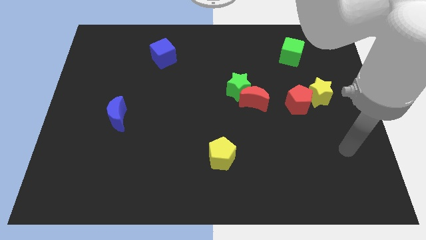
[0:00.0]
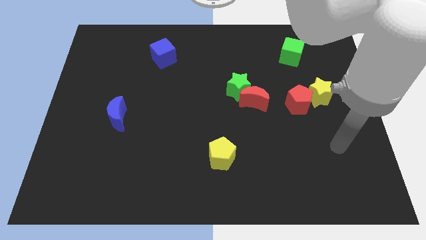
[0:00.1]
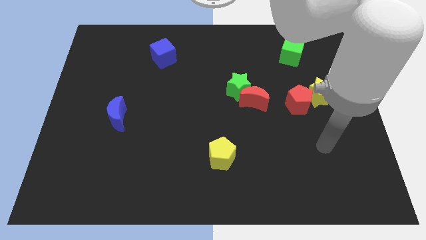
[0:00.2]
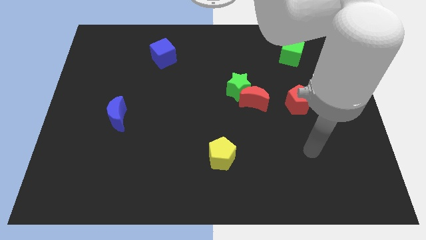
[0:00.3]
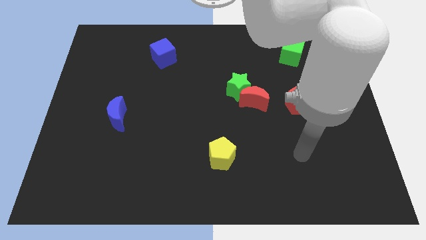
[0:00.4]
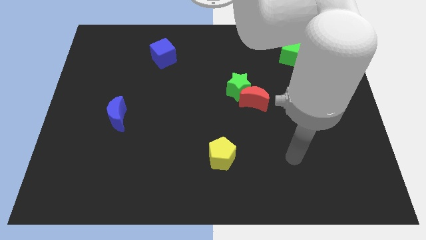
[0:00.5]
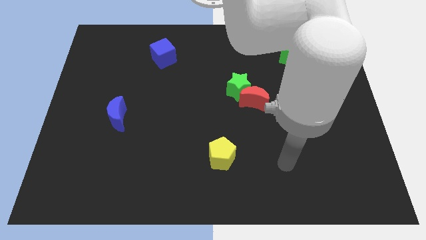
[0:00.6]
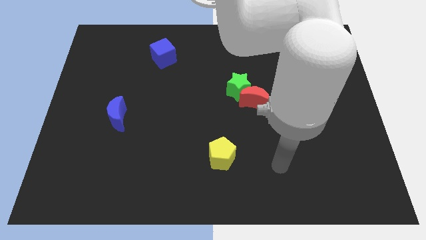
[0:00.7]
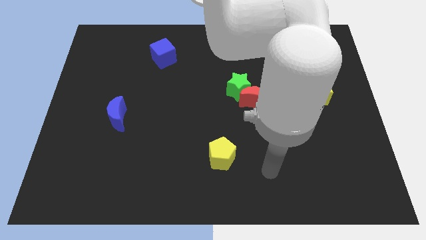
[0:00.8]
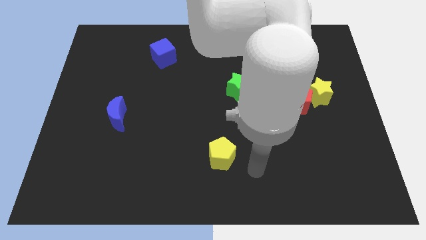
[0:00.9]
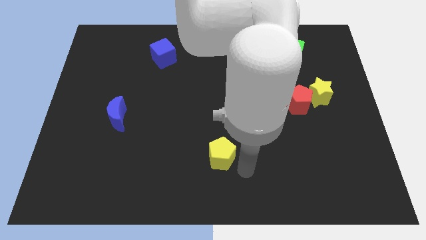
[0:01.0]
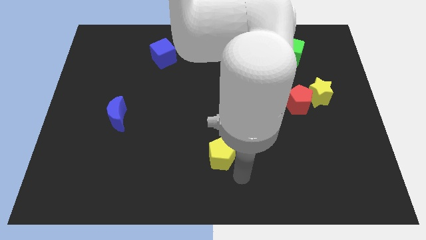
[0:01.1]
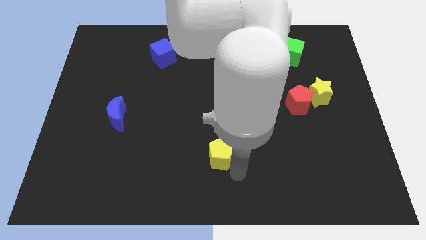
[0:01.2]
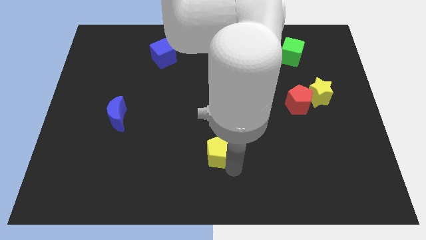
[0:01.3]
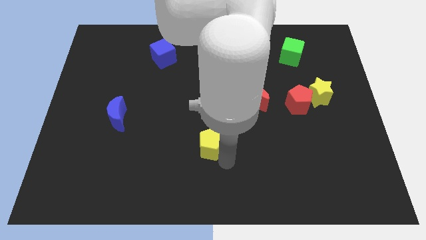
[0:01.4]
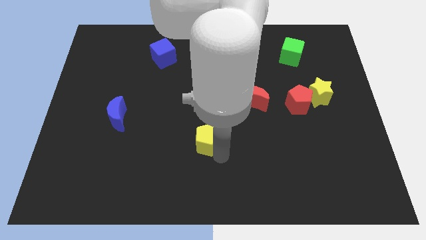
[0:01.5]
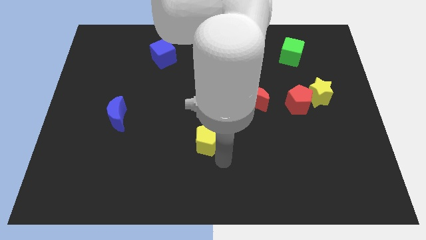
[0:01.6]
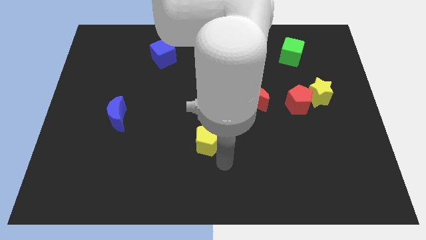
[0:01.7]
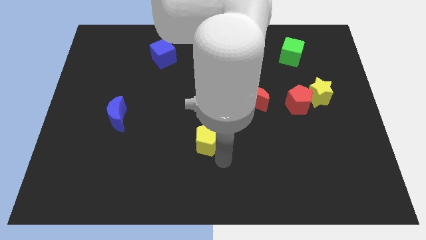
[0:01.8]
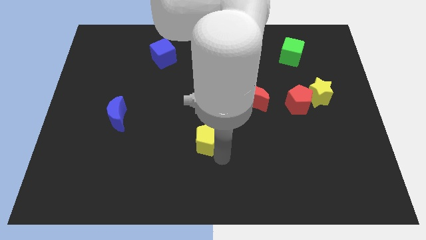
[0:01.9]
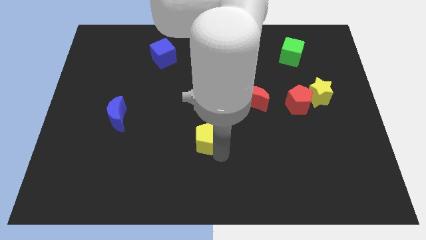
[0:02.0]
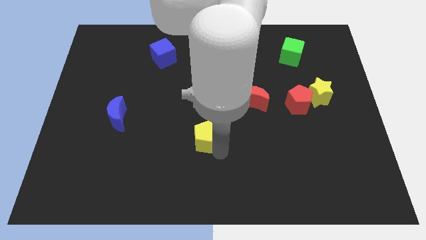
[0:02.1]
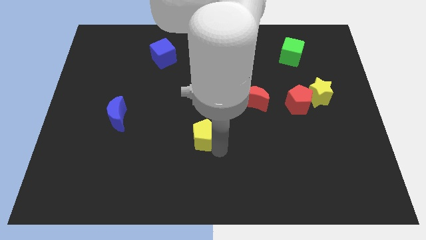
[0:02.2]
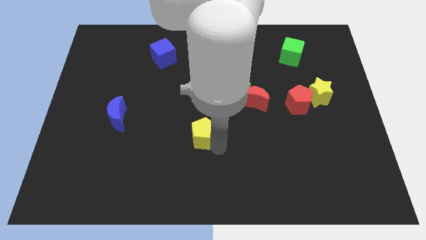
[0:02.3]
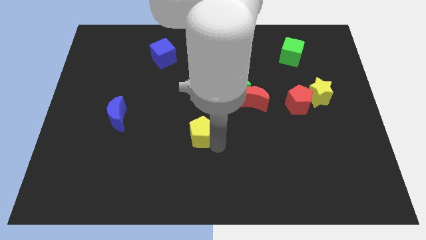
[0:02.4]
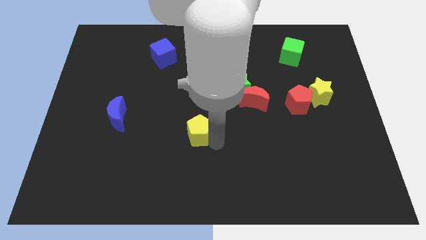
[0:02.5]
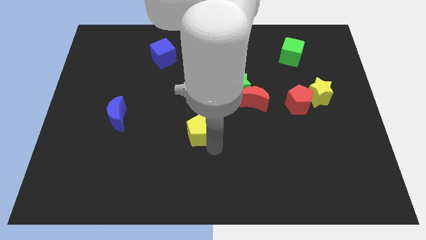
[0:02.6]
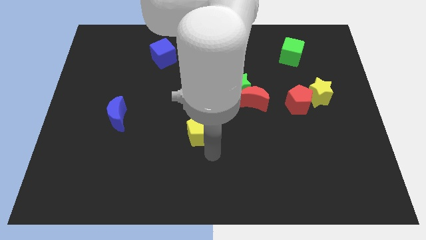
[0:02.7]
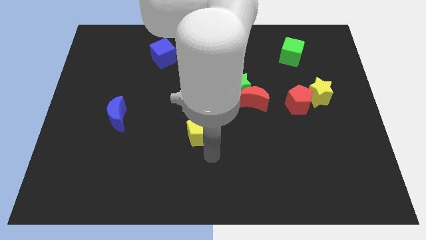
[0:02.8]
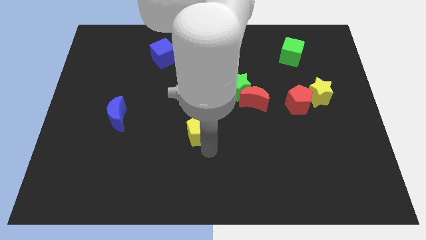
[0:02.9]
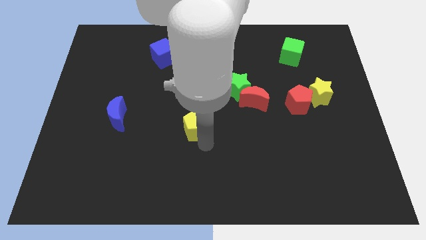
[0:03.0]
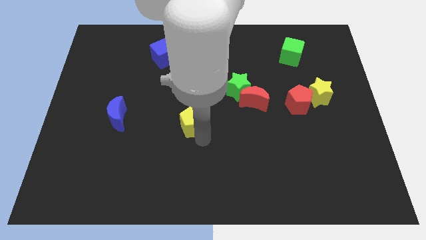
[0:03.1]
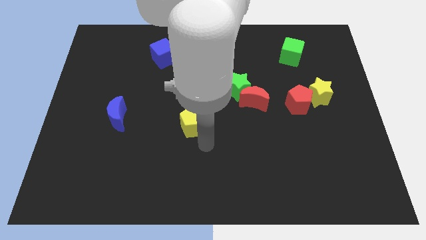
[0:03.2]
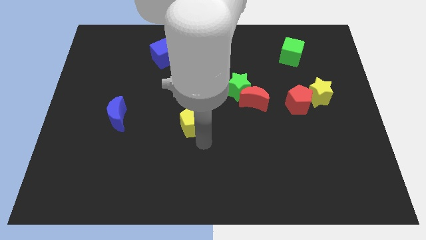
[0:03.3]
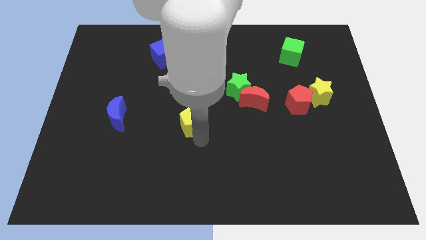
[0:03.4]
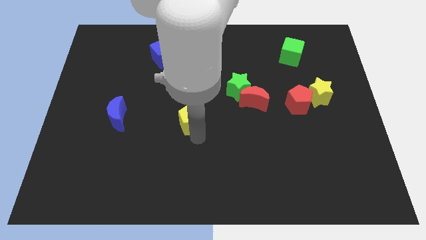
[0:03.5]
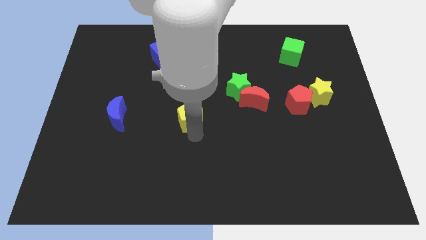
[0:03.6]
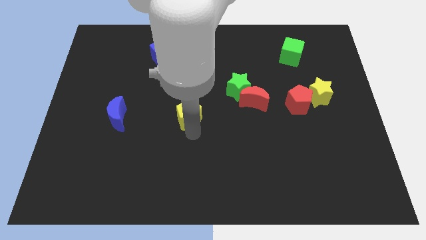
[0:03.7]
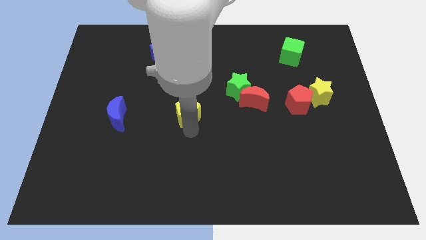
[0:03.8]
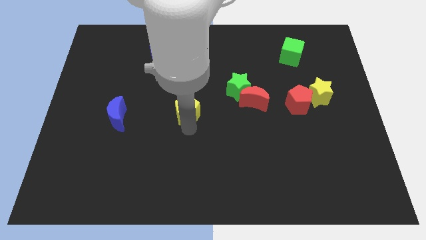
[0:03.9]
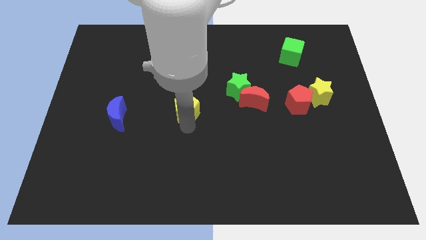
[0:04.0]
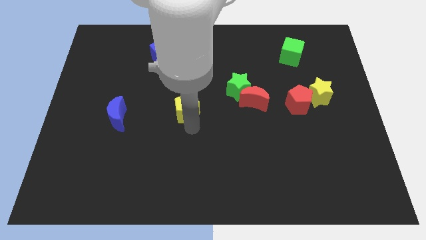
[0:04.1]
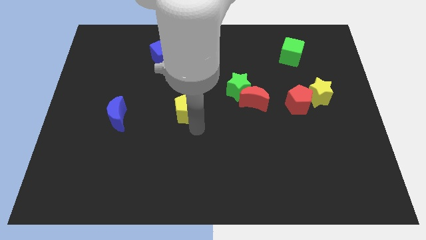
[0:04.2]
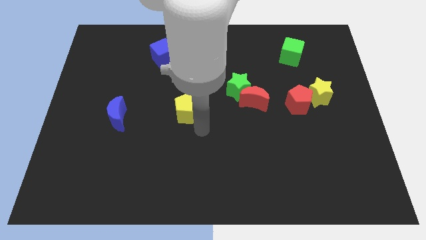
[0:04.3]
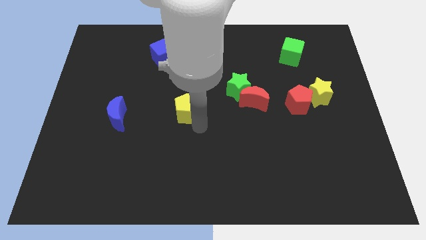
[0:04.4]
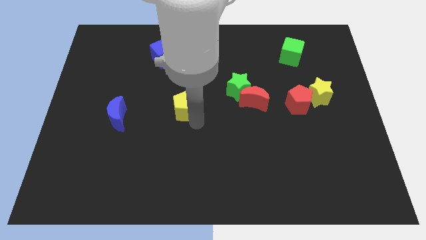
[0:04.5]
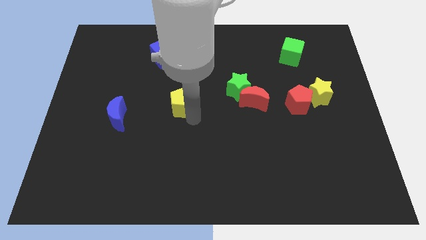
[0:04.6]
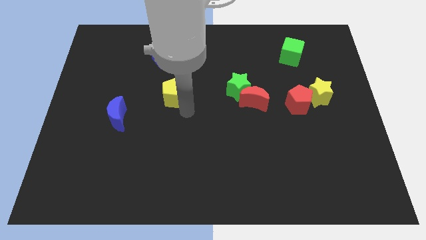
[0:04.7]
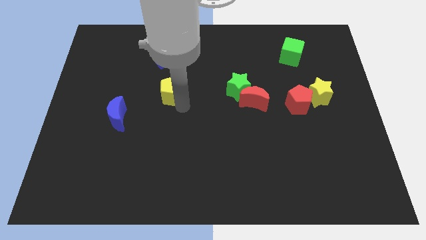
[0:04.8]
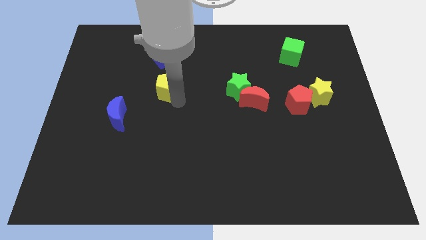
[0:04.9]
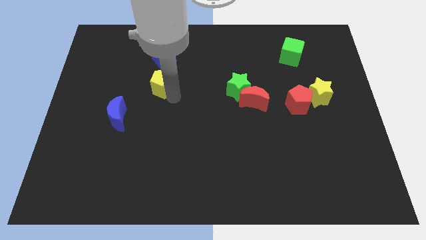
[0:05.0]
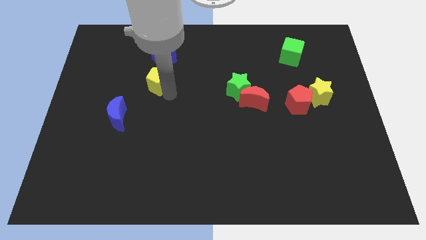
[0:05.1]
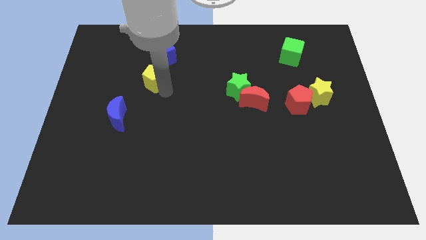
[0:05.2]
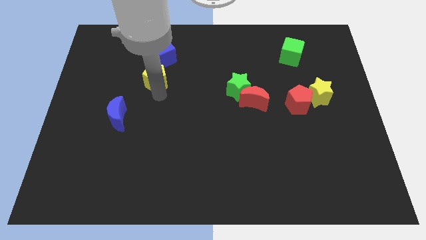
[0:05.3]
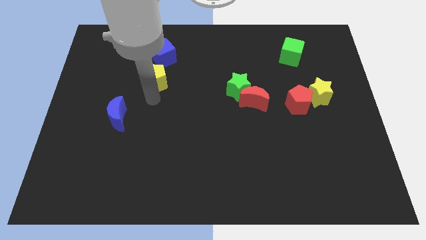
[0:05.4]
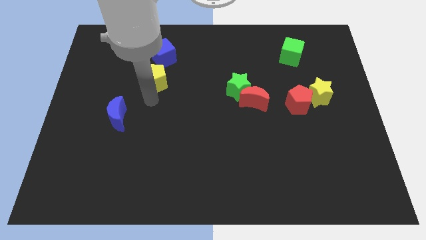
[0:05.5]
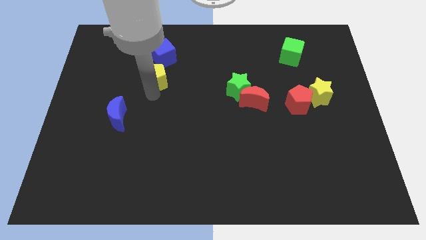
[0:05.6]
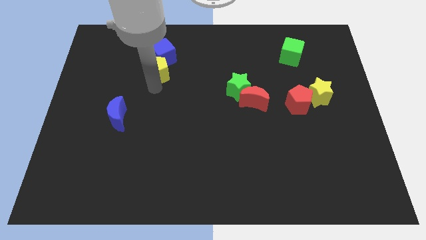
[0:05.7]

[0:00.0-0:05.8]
move the yellow pentagon towards the blue cube

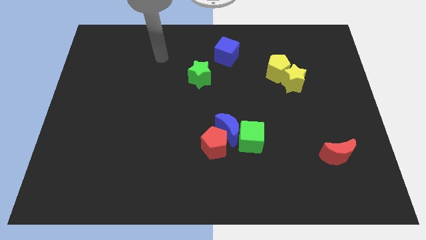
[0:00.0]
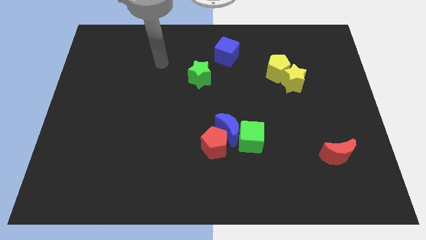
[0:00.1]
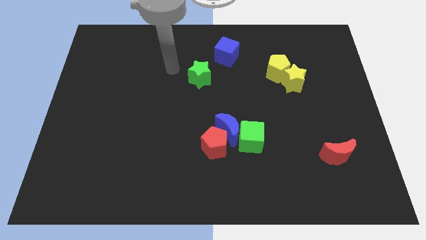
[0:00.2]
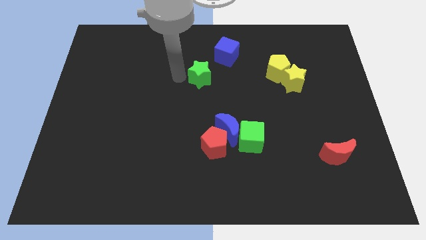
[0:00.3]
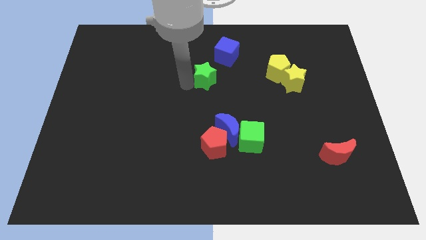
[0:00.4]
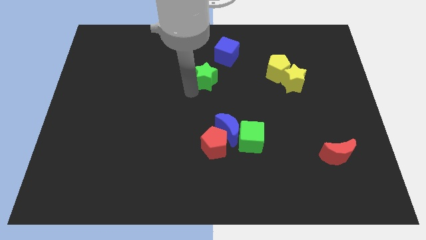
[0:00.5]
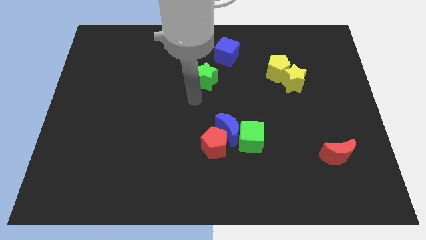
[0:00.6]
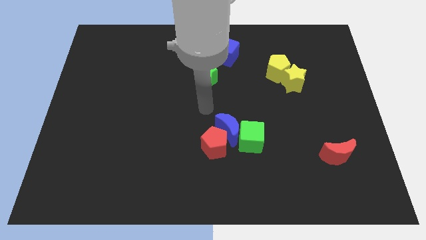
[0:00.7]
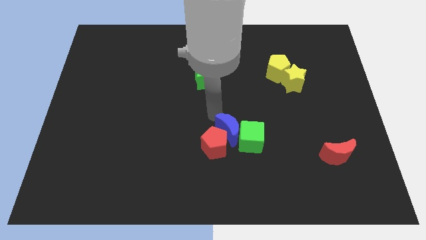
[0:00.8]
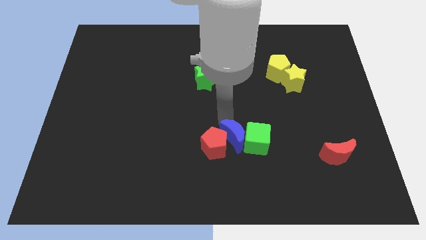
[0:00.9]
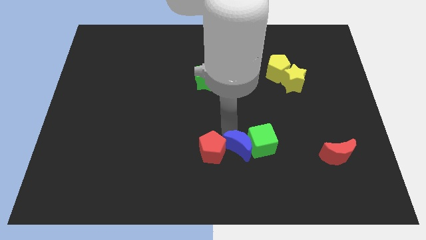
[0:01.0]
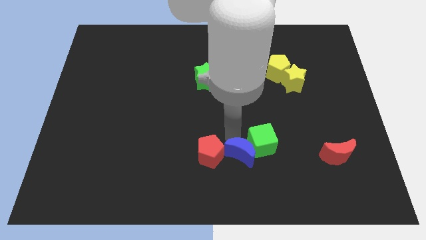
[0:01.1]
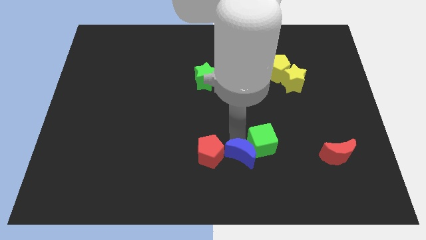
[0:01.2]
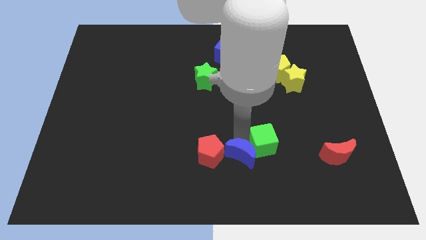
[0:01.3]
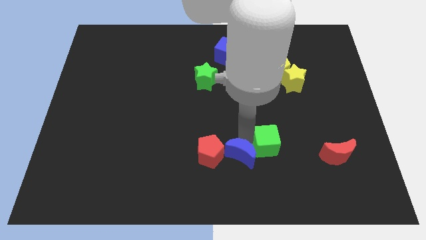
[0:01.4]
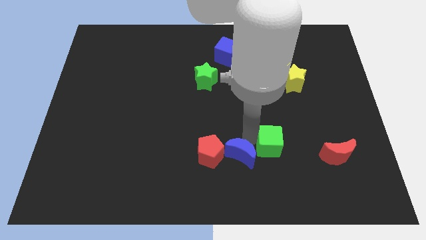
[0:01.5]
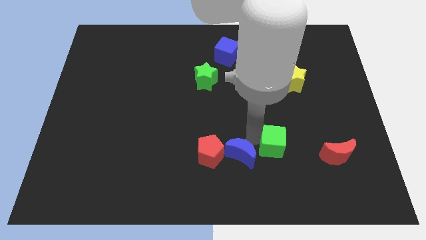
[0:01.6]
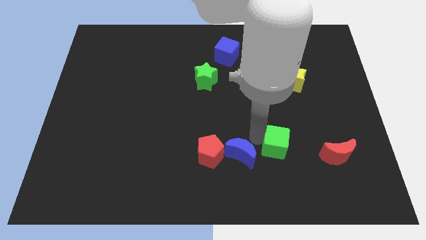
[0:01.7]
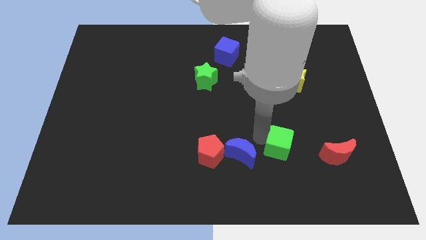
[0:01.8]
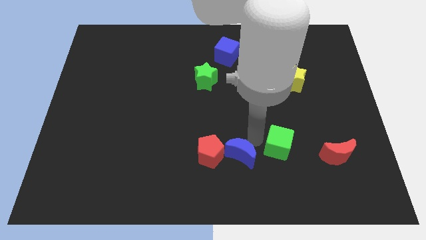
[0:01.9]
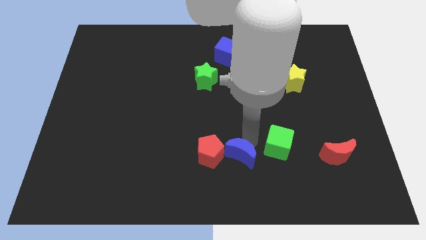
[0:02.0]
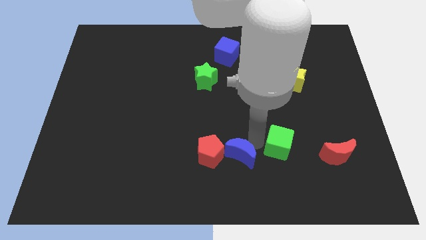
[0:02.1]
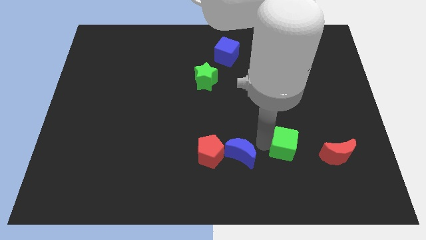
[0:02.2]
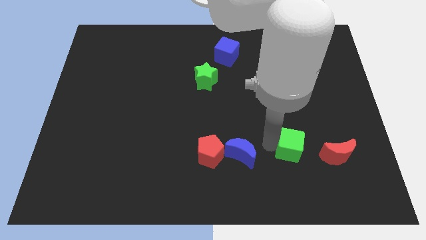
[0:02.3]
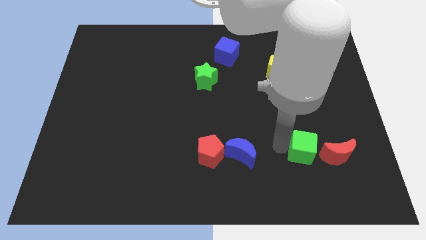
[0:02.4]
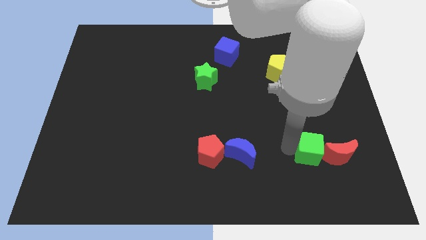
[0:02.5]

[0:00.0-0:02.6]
put the green cube next to the red moon
